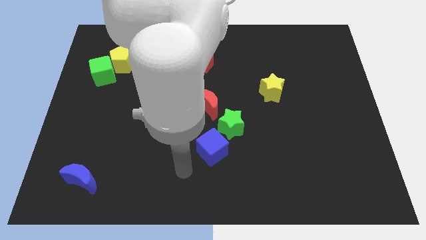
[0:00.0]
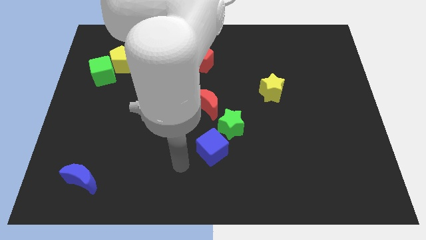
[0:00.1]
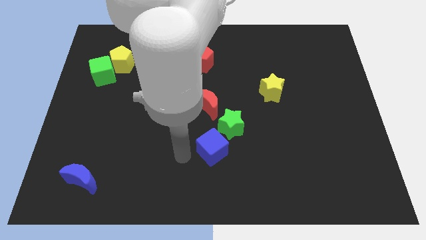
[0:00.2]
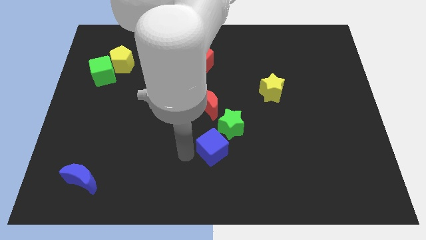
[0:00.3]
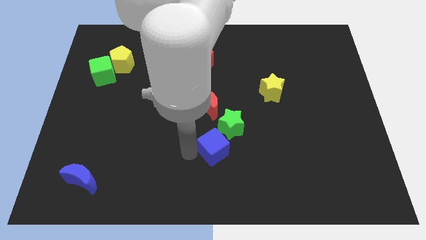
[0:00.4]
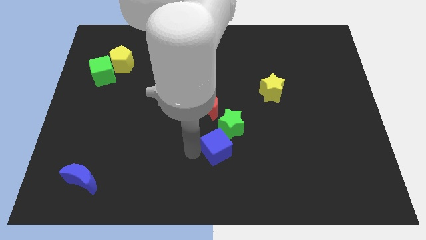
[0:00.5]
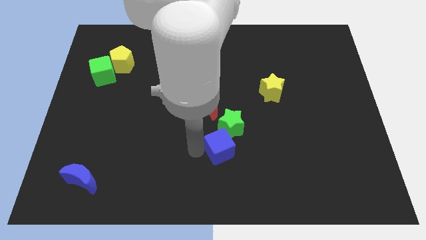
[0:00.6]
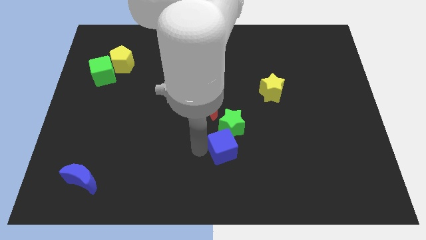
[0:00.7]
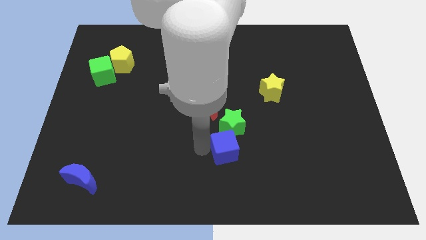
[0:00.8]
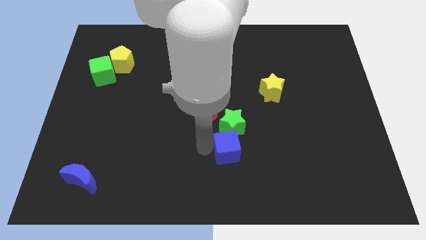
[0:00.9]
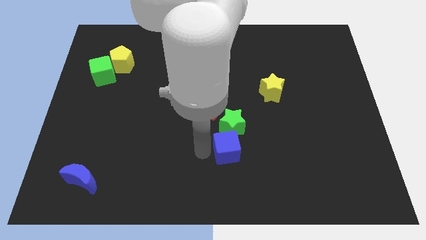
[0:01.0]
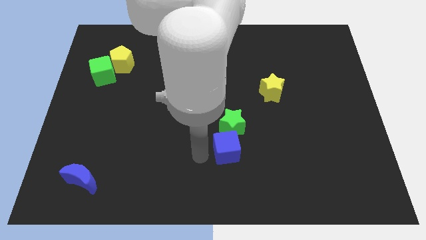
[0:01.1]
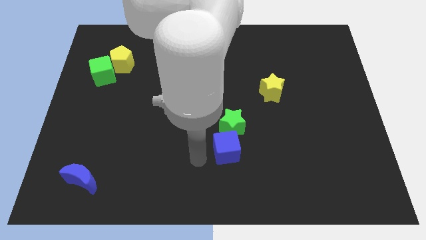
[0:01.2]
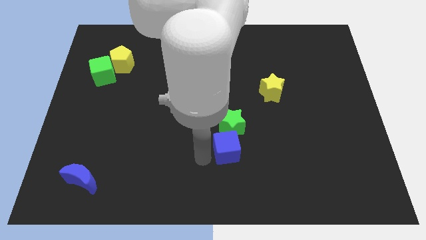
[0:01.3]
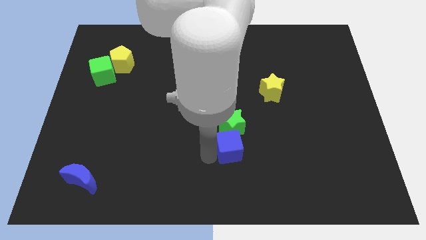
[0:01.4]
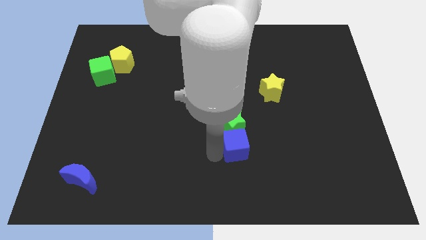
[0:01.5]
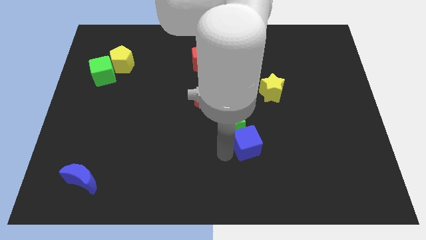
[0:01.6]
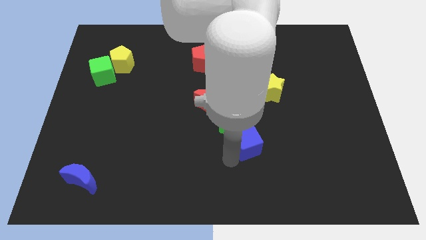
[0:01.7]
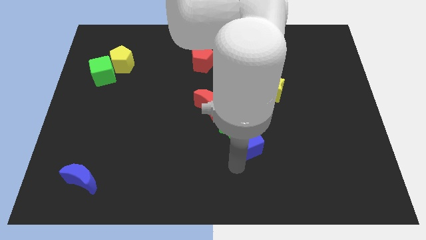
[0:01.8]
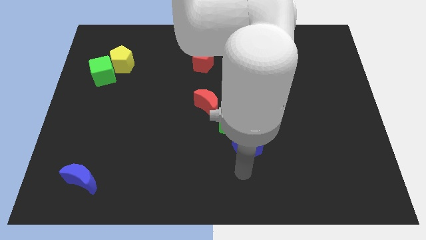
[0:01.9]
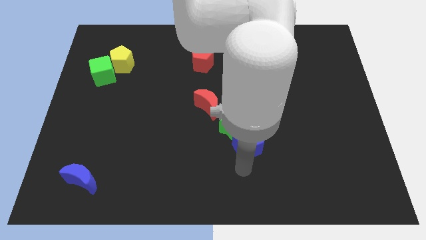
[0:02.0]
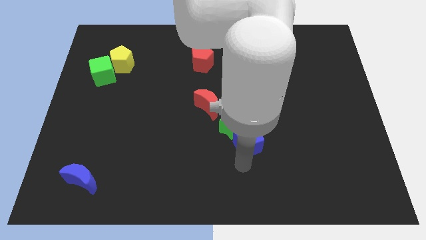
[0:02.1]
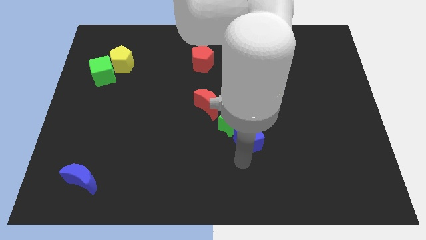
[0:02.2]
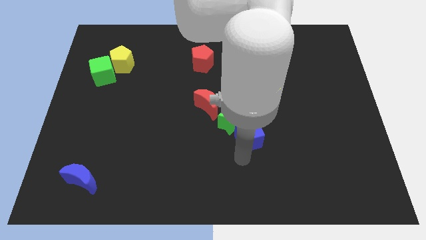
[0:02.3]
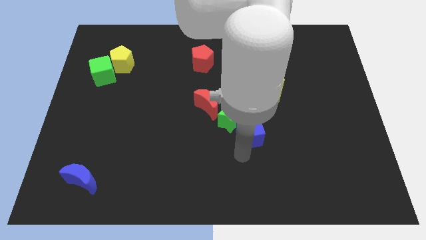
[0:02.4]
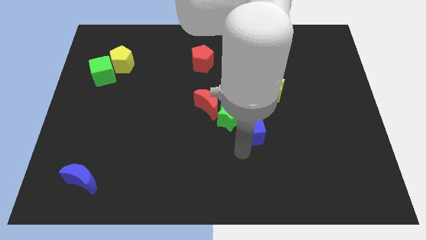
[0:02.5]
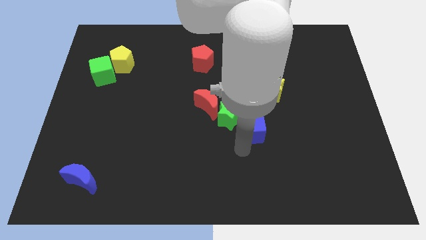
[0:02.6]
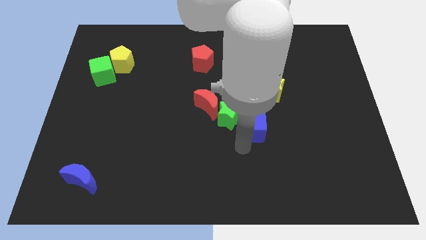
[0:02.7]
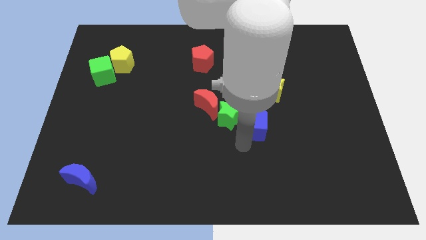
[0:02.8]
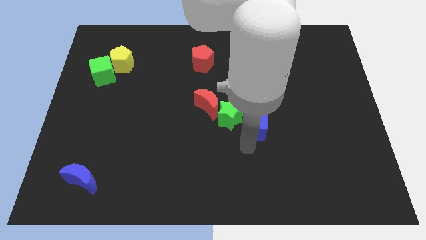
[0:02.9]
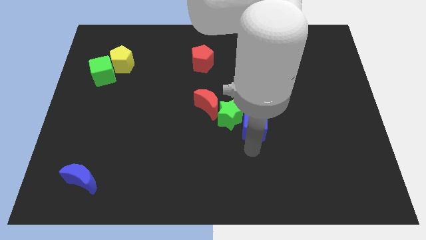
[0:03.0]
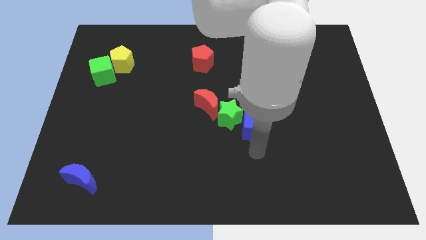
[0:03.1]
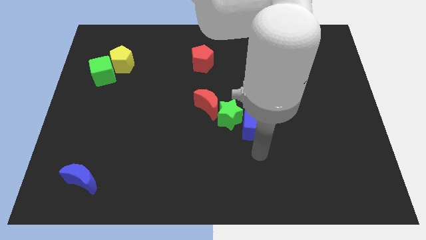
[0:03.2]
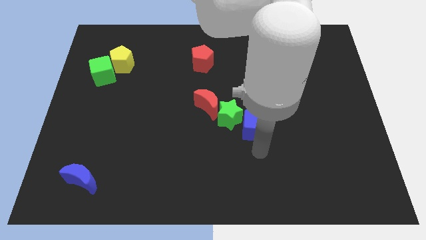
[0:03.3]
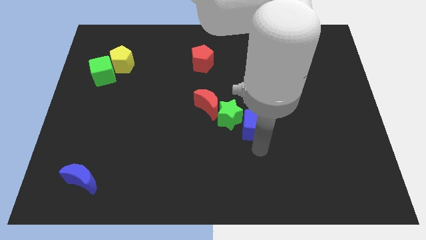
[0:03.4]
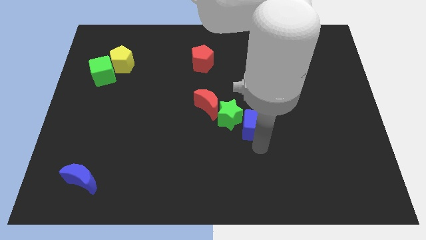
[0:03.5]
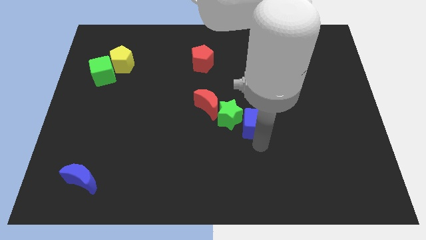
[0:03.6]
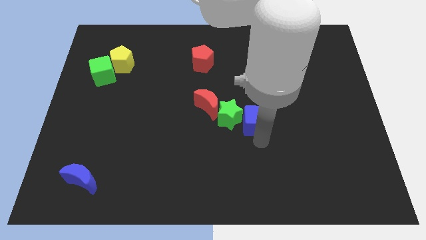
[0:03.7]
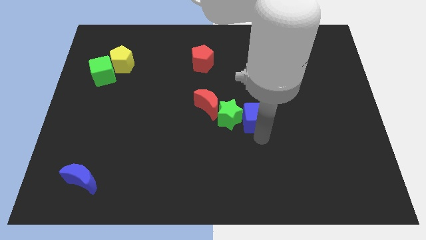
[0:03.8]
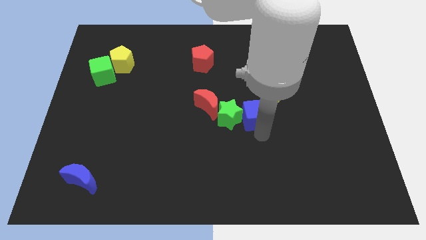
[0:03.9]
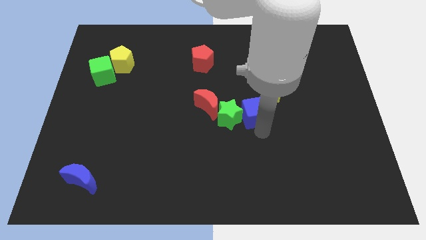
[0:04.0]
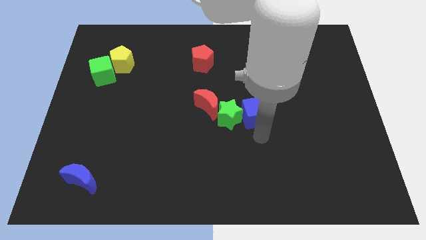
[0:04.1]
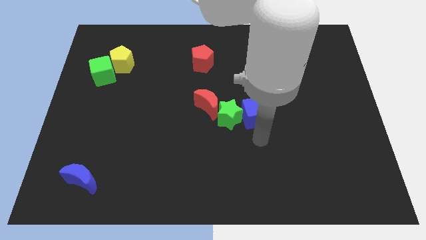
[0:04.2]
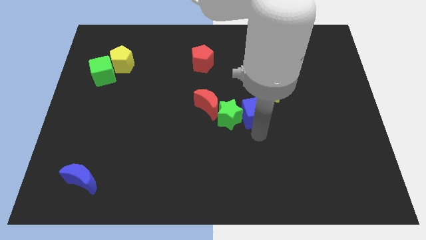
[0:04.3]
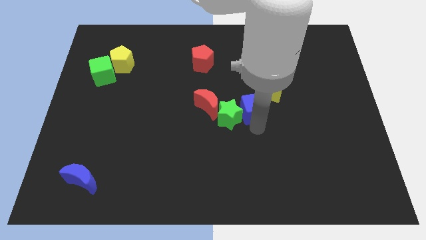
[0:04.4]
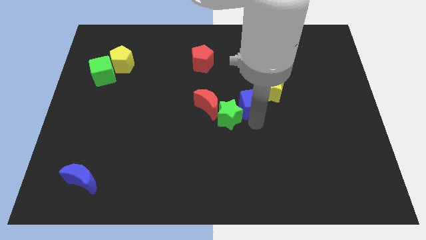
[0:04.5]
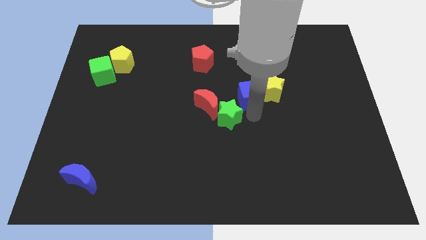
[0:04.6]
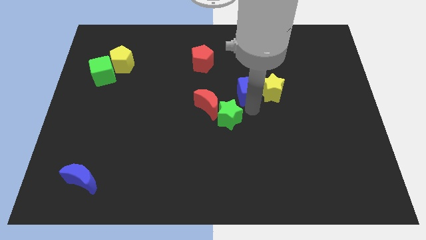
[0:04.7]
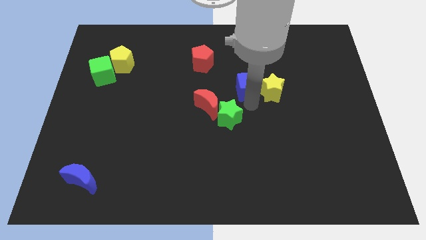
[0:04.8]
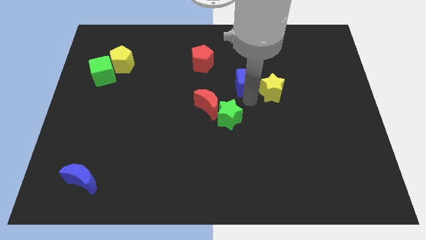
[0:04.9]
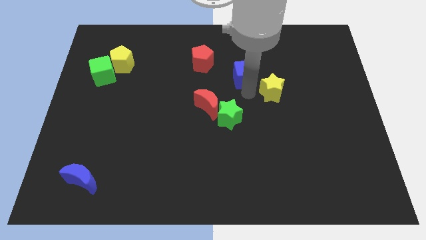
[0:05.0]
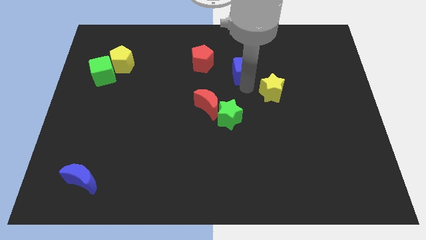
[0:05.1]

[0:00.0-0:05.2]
slide the blue cube just right of the red pentagon

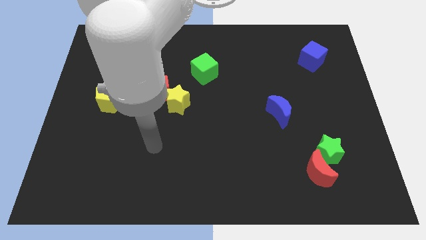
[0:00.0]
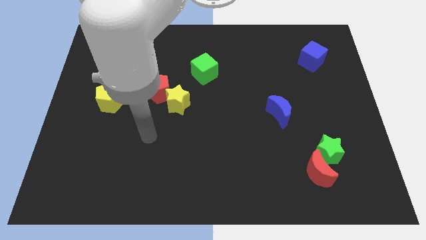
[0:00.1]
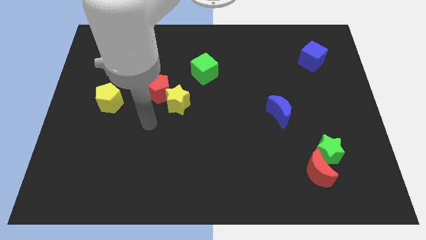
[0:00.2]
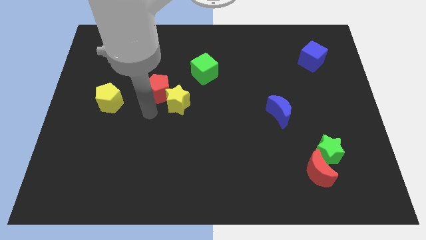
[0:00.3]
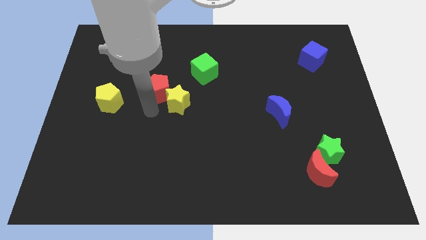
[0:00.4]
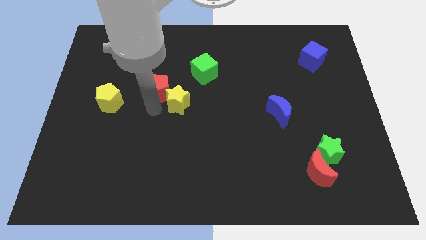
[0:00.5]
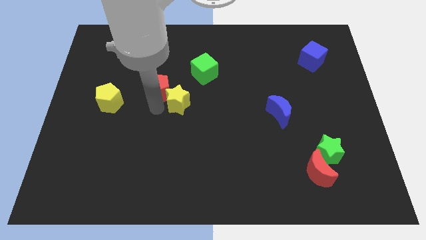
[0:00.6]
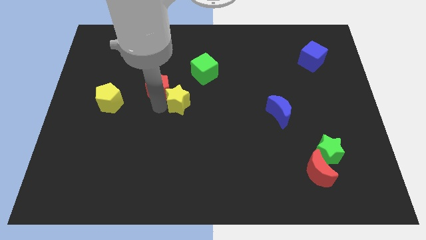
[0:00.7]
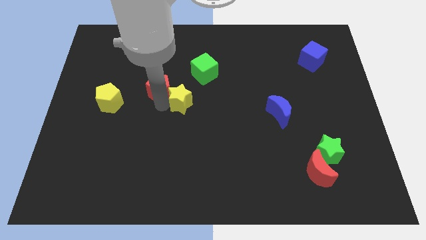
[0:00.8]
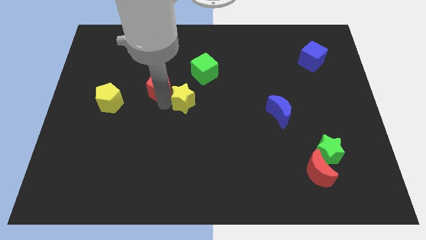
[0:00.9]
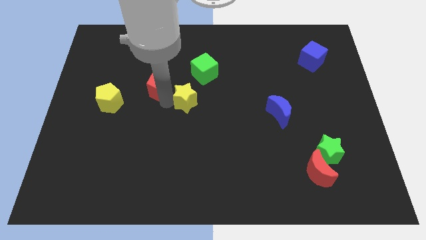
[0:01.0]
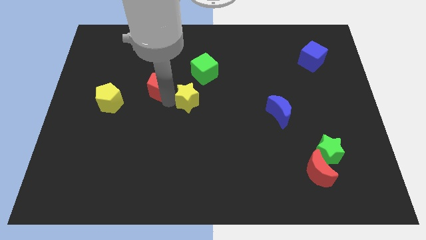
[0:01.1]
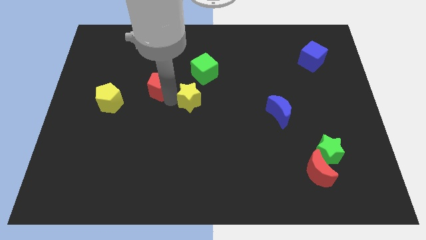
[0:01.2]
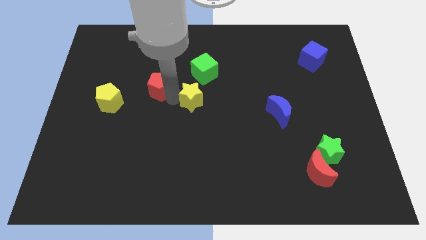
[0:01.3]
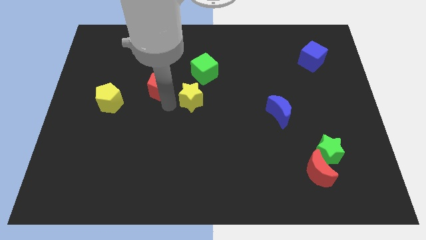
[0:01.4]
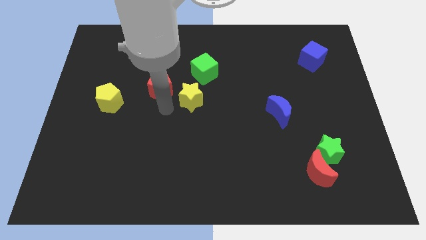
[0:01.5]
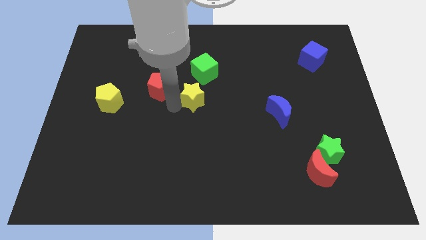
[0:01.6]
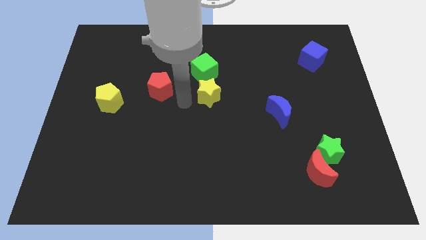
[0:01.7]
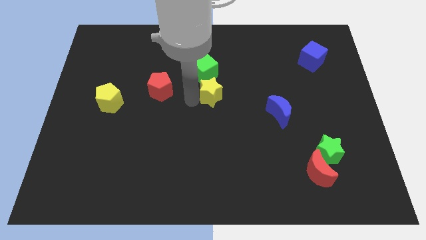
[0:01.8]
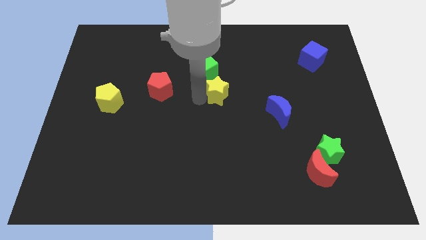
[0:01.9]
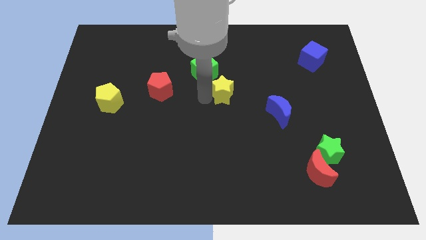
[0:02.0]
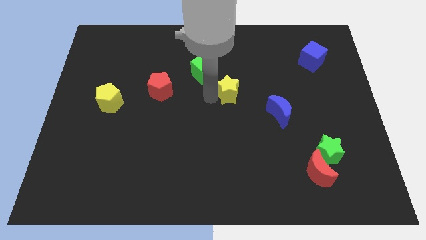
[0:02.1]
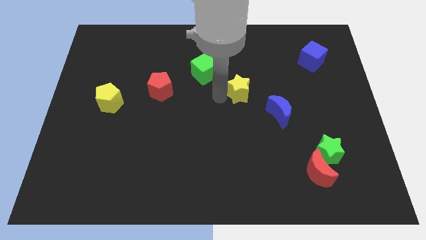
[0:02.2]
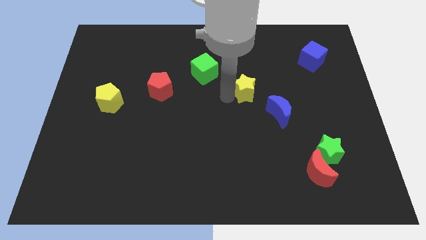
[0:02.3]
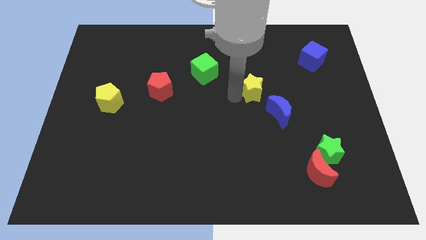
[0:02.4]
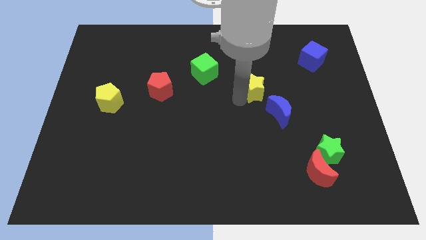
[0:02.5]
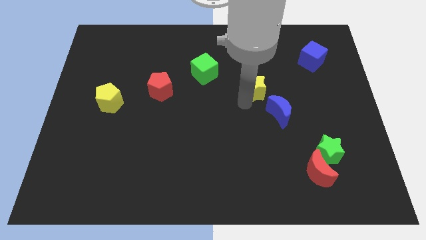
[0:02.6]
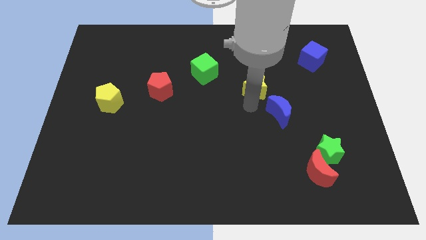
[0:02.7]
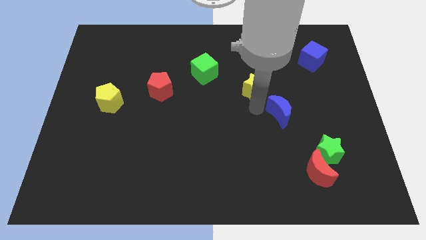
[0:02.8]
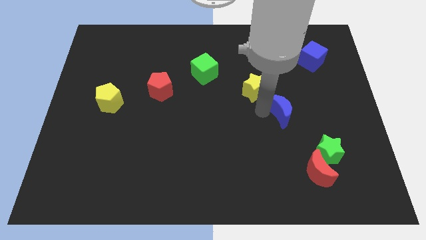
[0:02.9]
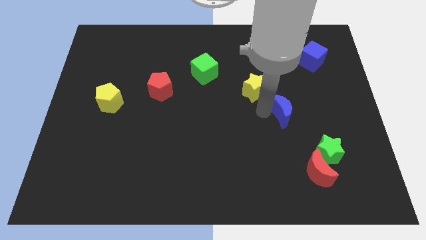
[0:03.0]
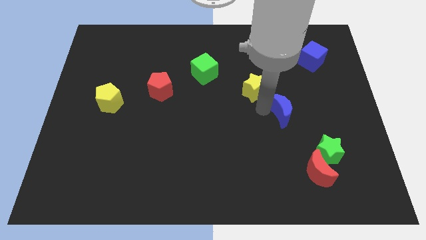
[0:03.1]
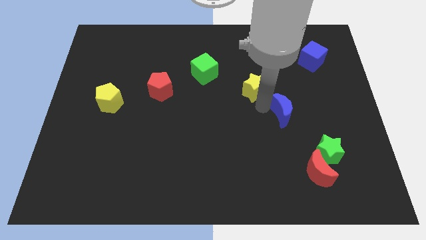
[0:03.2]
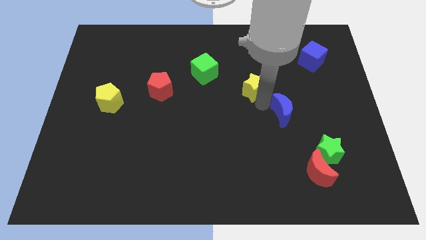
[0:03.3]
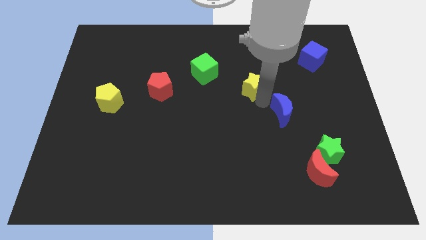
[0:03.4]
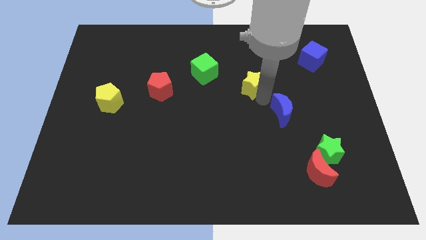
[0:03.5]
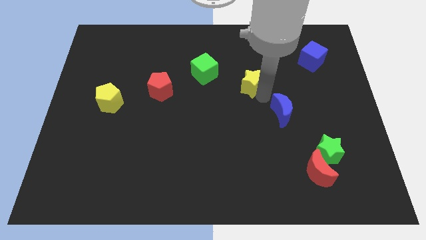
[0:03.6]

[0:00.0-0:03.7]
move the yellow star right of the green cube
